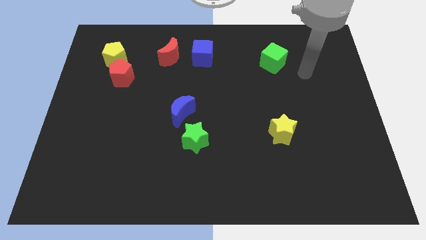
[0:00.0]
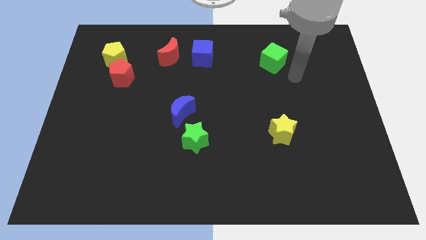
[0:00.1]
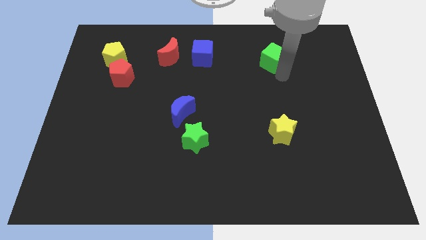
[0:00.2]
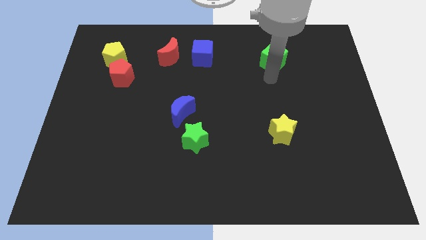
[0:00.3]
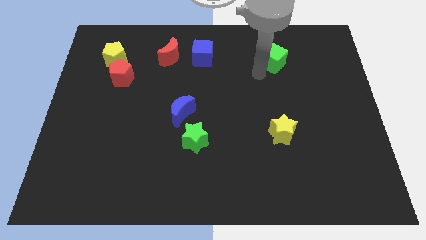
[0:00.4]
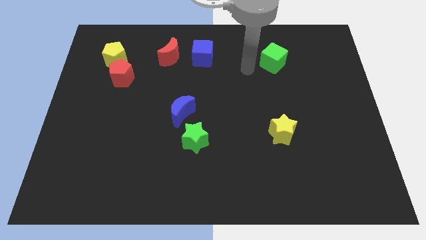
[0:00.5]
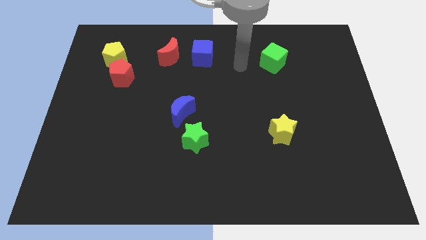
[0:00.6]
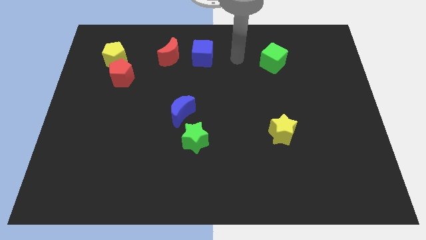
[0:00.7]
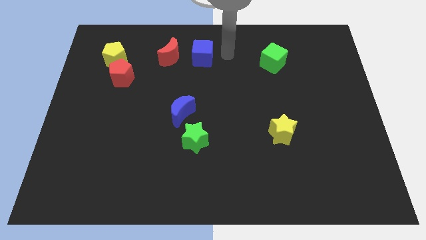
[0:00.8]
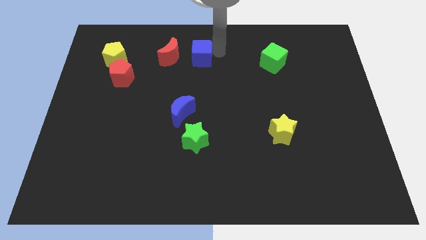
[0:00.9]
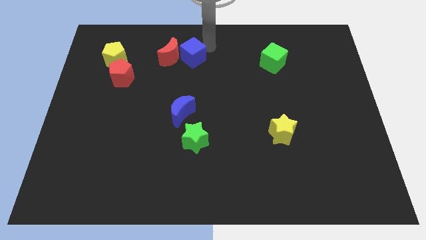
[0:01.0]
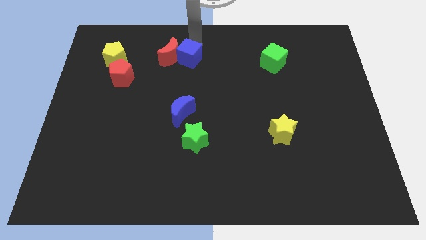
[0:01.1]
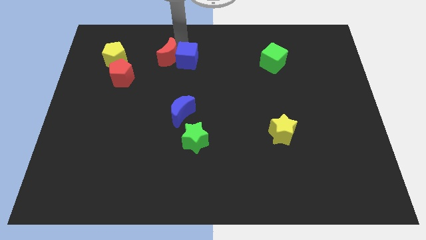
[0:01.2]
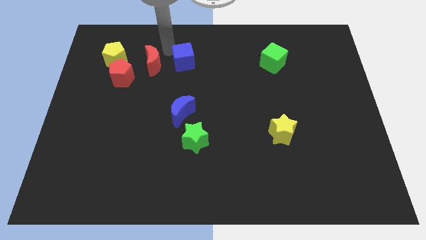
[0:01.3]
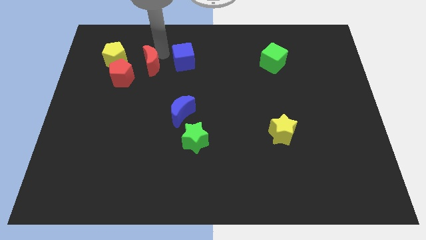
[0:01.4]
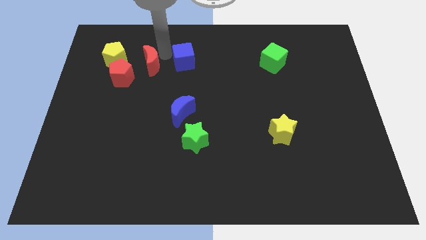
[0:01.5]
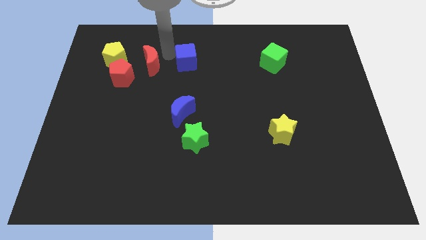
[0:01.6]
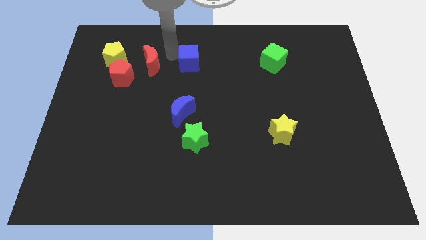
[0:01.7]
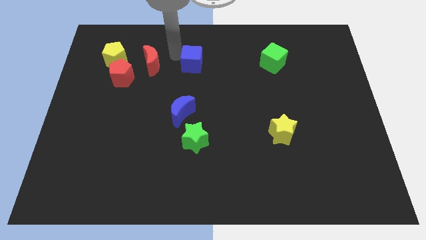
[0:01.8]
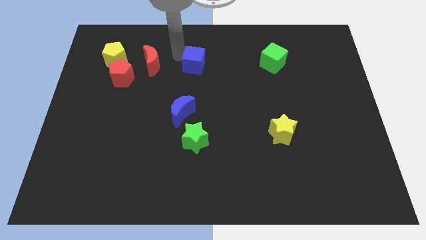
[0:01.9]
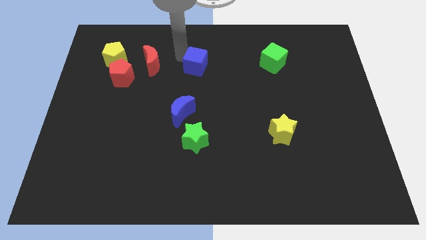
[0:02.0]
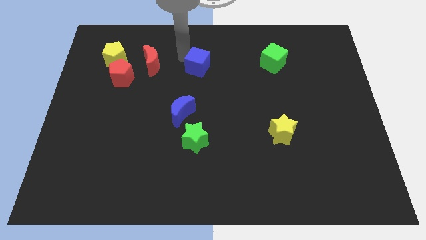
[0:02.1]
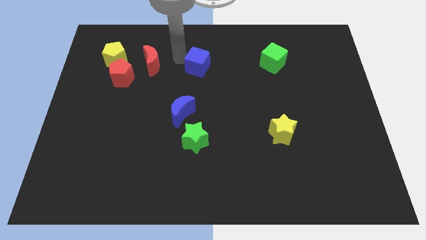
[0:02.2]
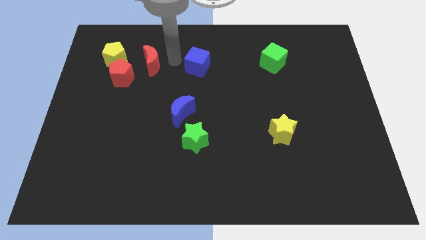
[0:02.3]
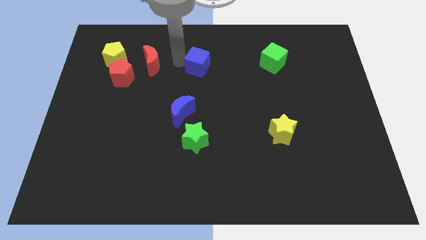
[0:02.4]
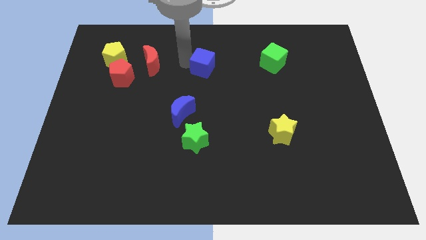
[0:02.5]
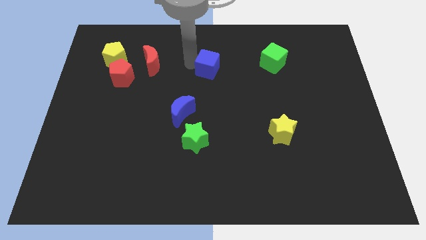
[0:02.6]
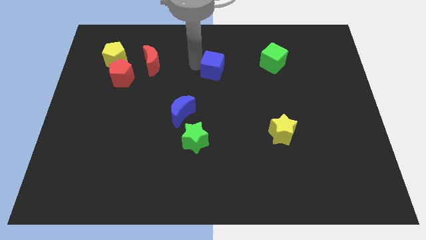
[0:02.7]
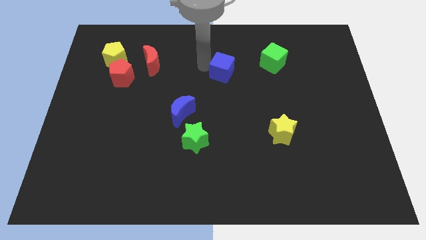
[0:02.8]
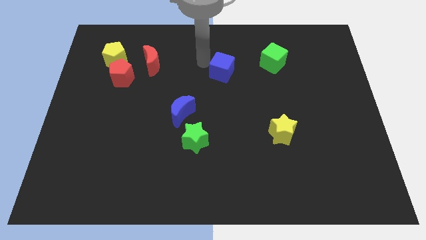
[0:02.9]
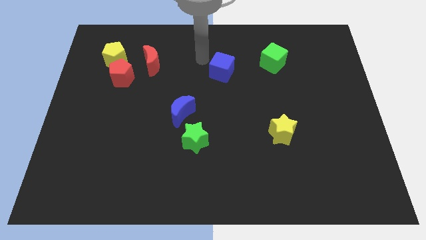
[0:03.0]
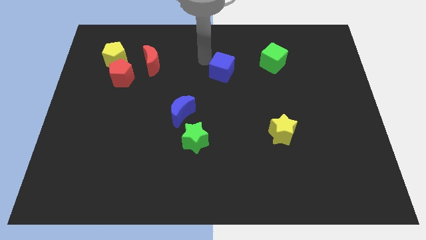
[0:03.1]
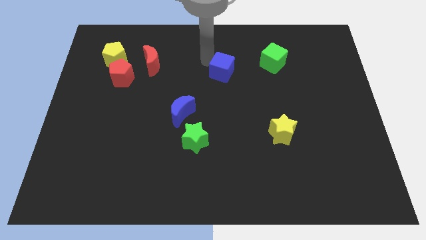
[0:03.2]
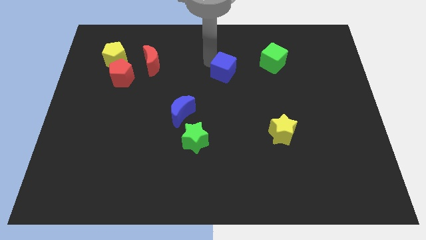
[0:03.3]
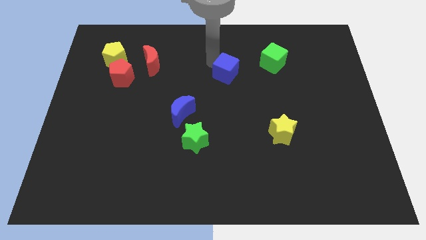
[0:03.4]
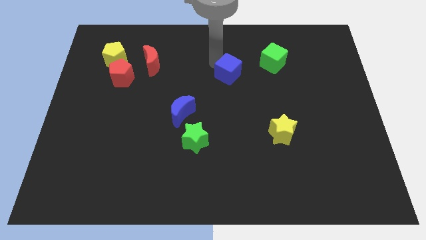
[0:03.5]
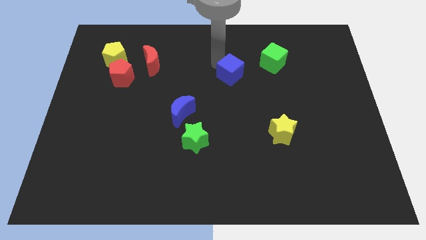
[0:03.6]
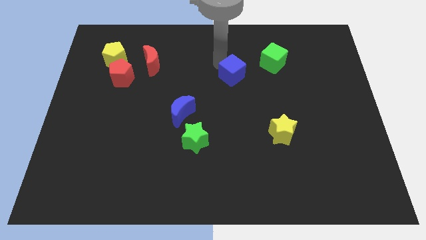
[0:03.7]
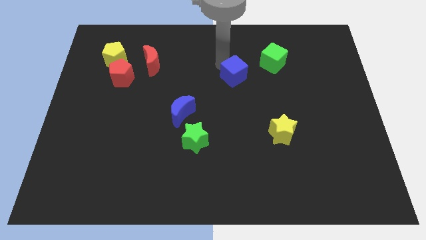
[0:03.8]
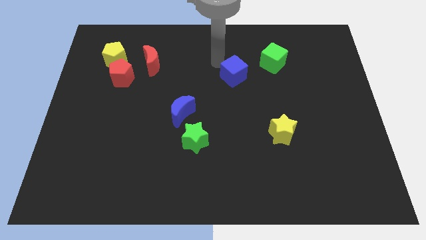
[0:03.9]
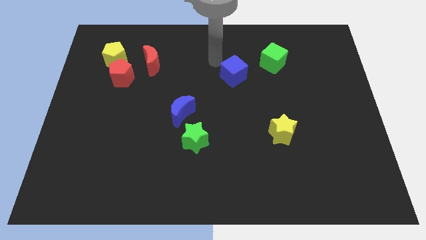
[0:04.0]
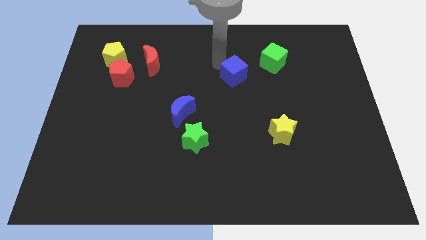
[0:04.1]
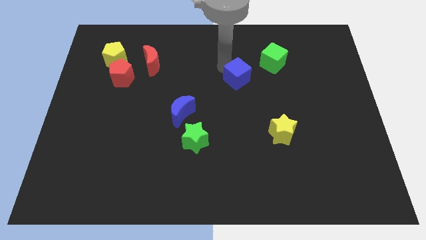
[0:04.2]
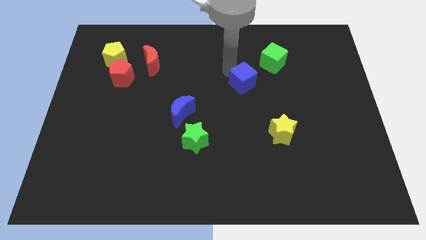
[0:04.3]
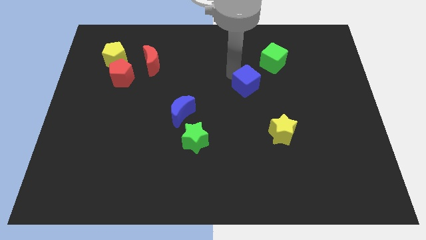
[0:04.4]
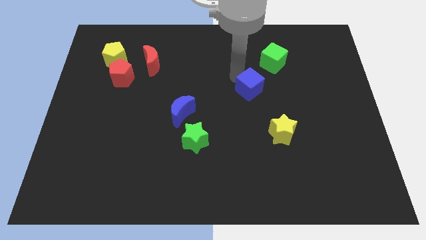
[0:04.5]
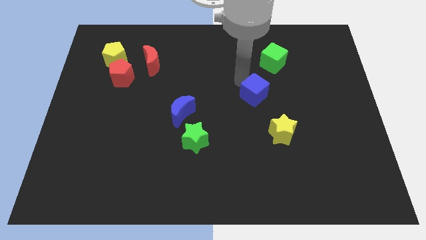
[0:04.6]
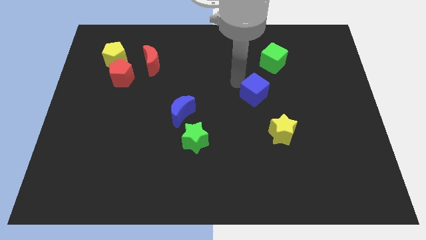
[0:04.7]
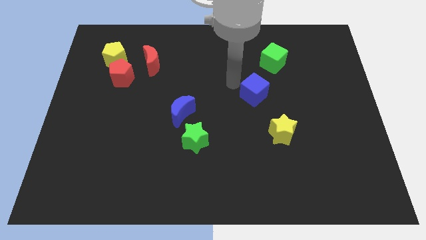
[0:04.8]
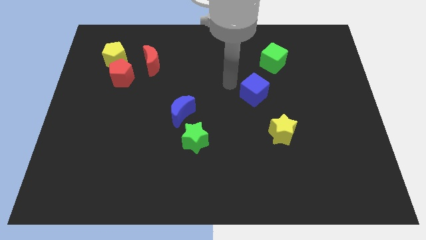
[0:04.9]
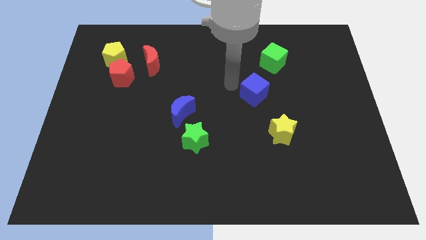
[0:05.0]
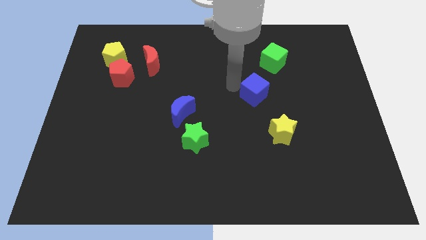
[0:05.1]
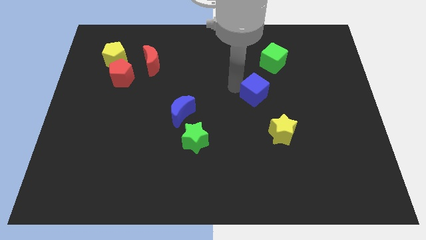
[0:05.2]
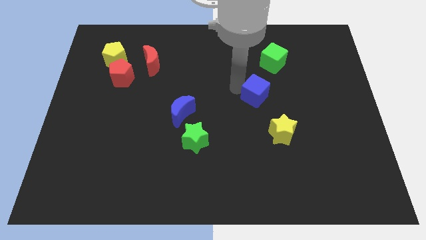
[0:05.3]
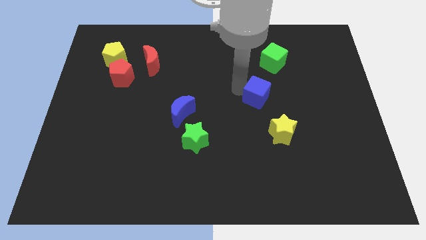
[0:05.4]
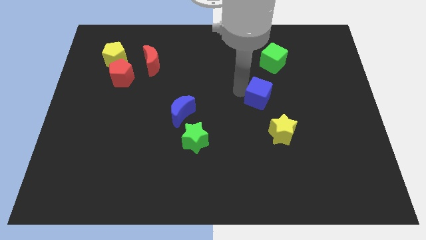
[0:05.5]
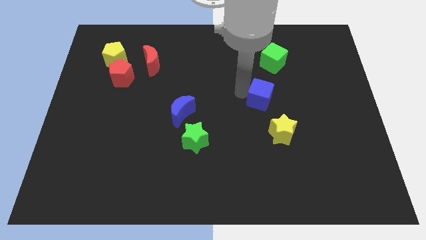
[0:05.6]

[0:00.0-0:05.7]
slide the blue cube down and right

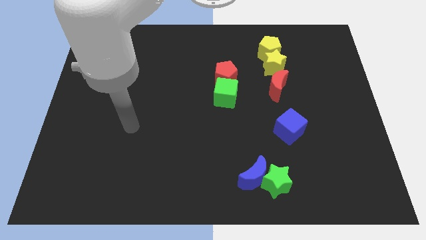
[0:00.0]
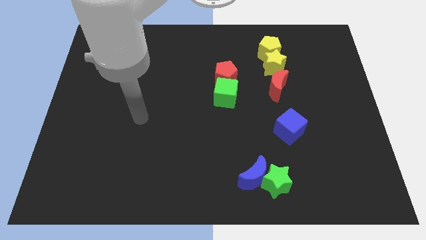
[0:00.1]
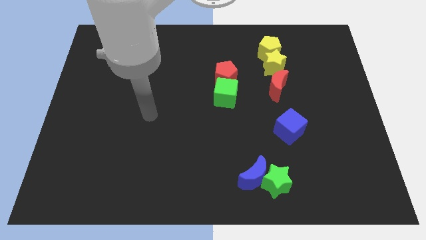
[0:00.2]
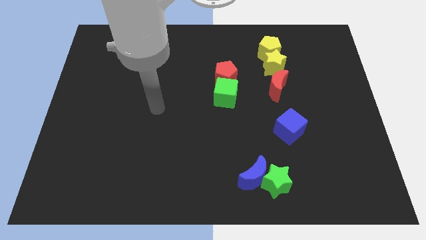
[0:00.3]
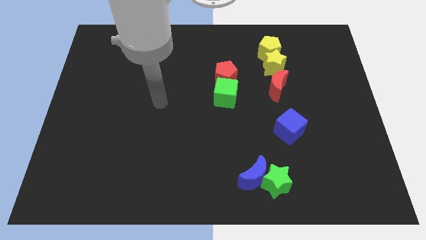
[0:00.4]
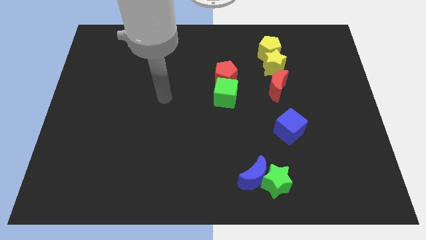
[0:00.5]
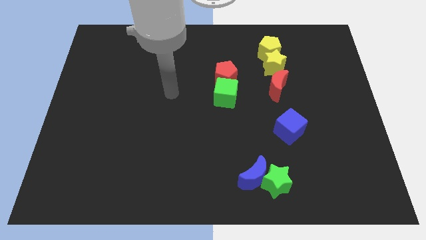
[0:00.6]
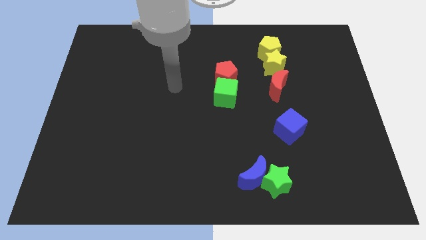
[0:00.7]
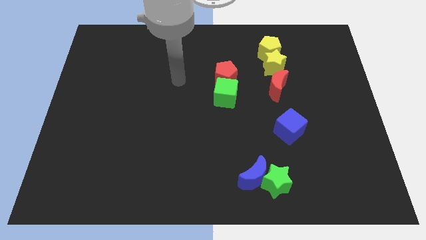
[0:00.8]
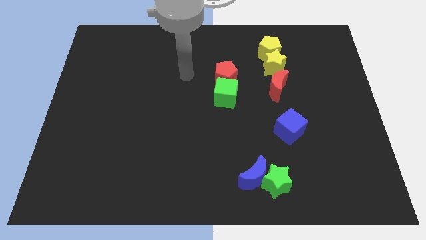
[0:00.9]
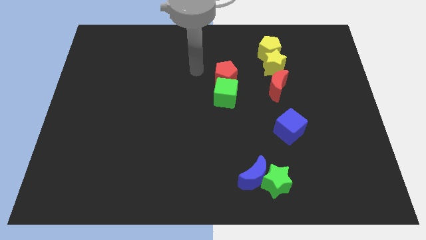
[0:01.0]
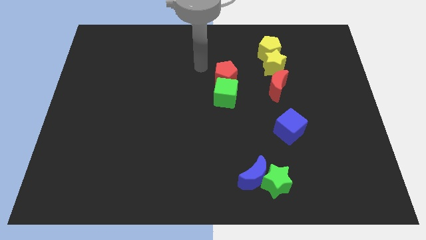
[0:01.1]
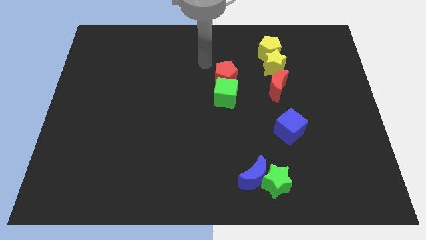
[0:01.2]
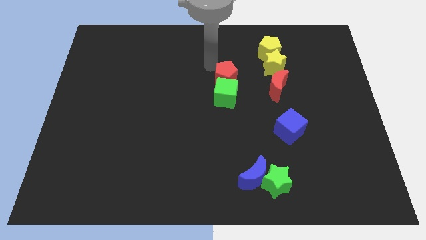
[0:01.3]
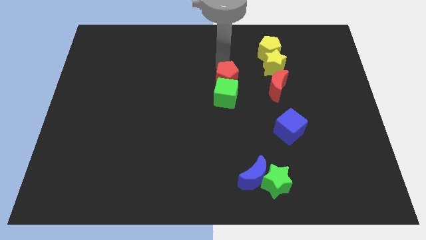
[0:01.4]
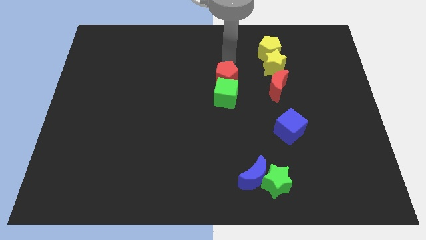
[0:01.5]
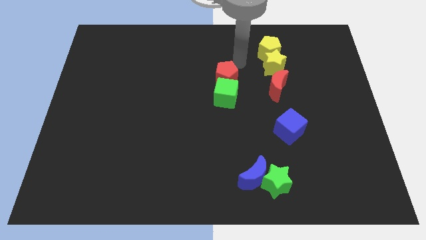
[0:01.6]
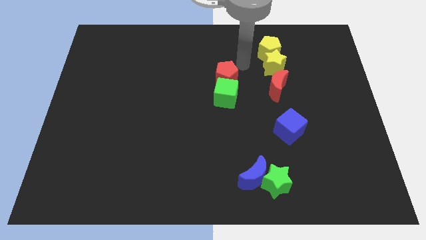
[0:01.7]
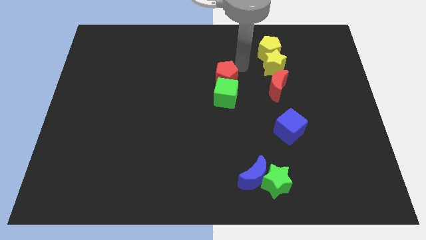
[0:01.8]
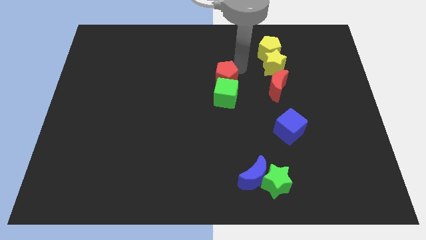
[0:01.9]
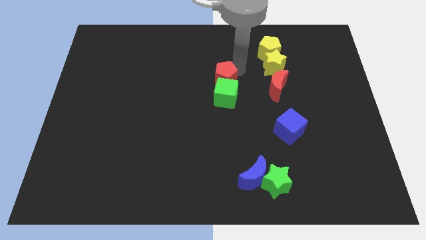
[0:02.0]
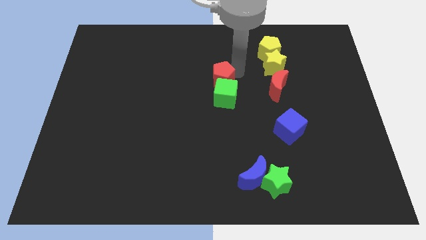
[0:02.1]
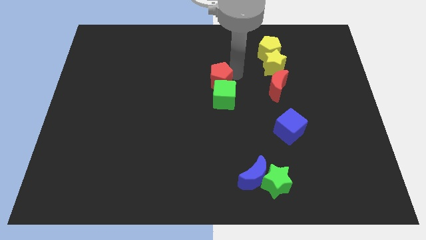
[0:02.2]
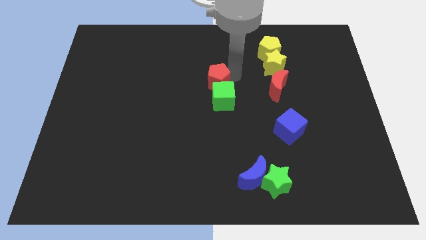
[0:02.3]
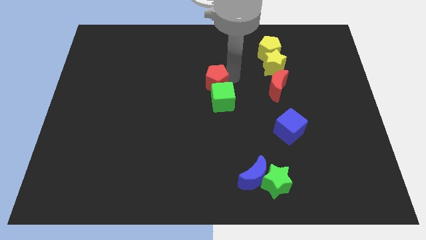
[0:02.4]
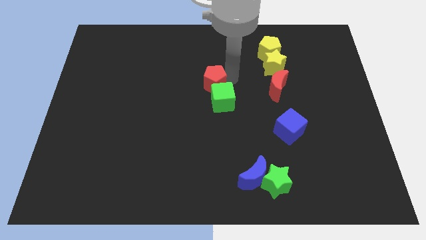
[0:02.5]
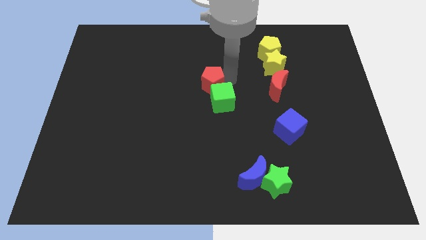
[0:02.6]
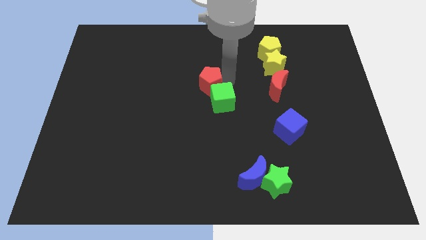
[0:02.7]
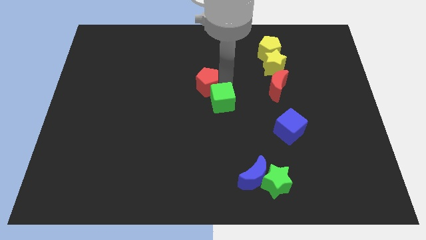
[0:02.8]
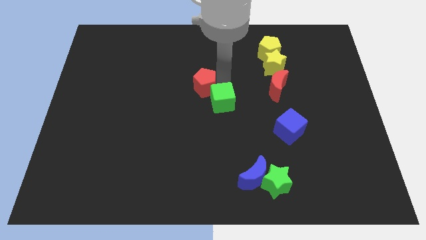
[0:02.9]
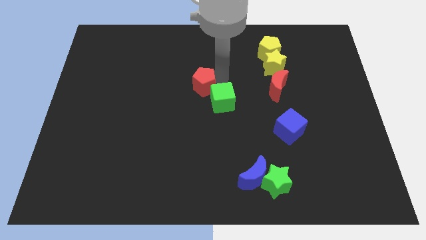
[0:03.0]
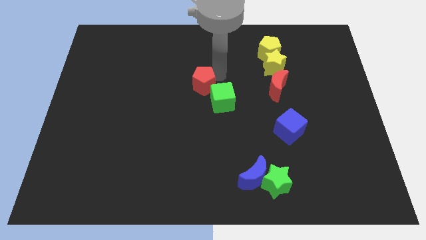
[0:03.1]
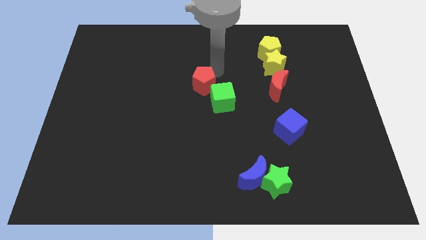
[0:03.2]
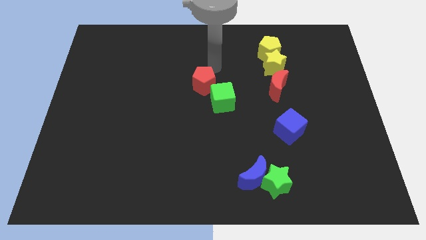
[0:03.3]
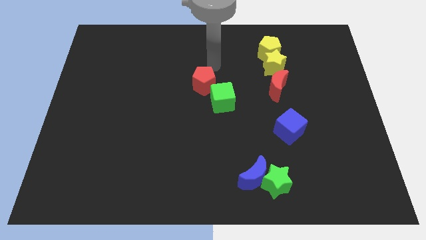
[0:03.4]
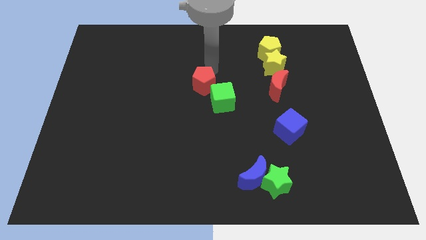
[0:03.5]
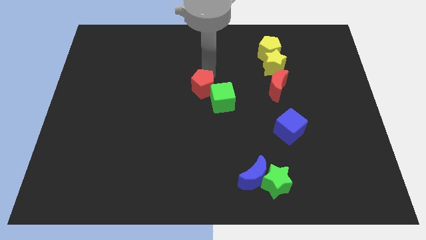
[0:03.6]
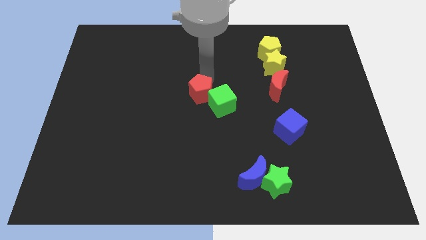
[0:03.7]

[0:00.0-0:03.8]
push the red pentagon diagonally downwards and to the left a little bit
